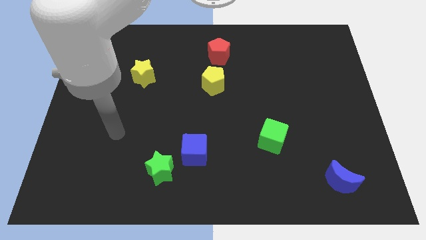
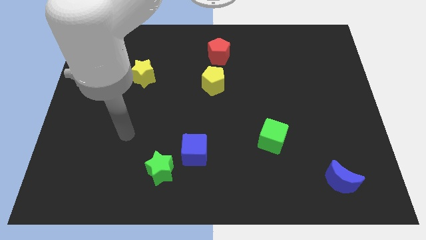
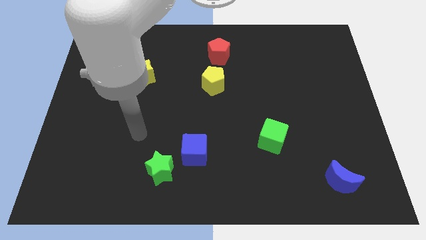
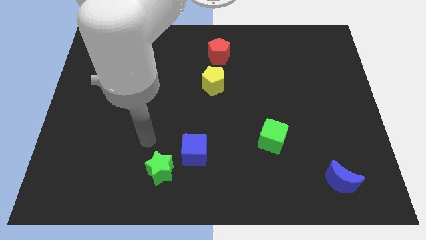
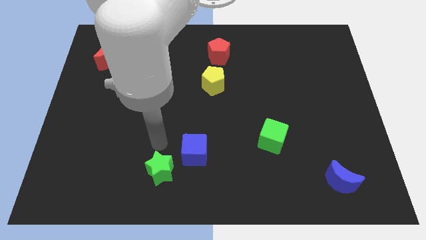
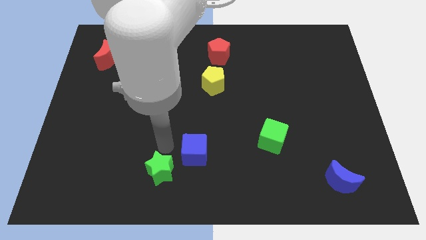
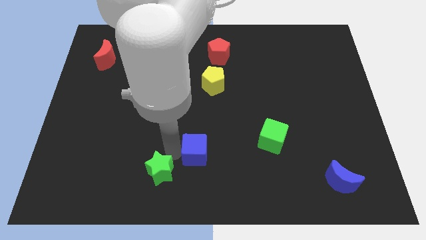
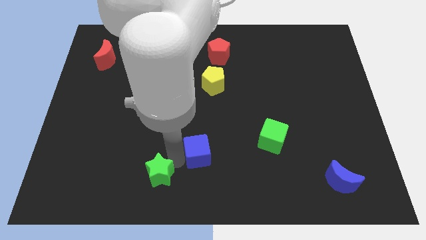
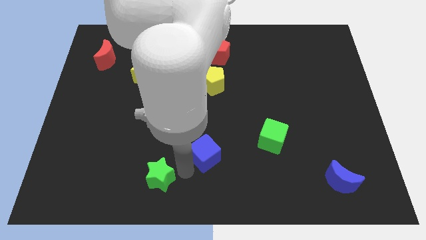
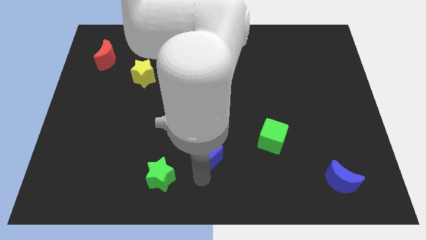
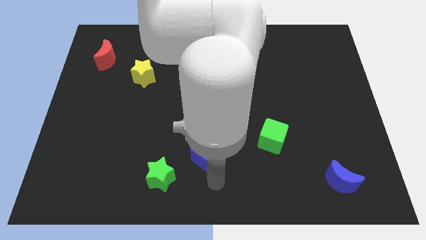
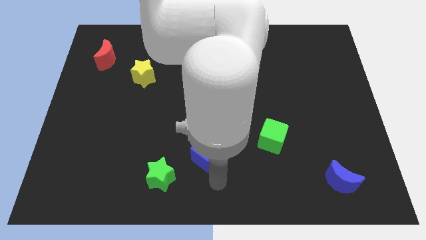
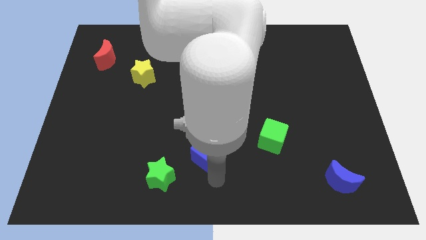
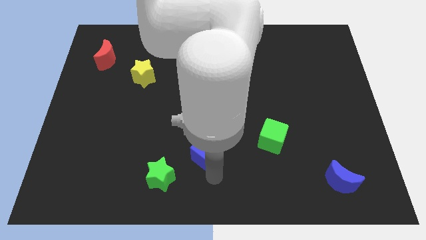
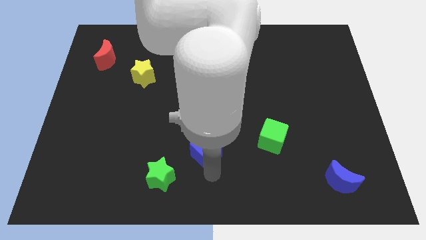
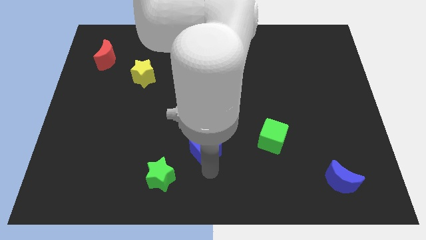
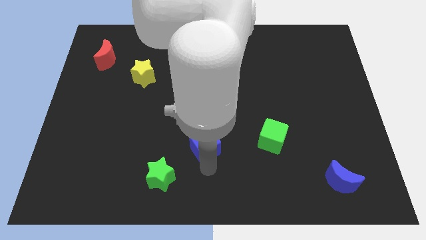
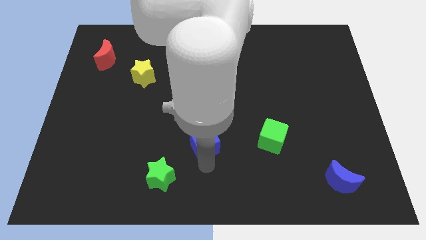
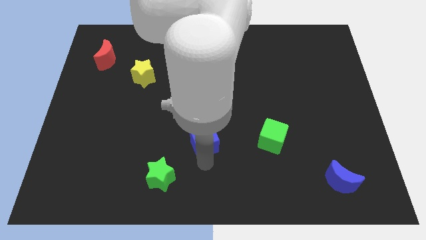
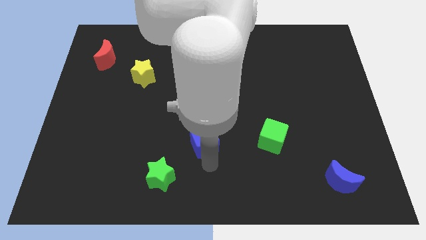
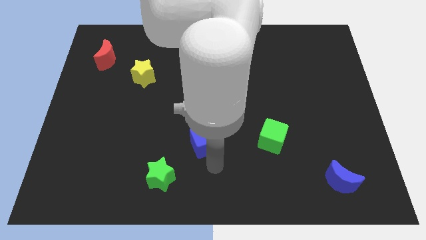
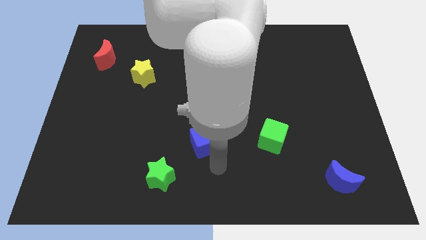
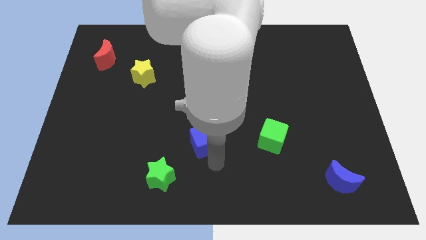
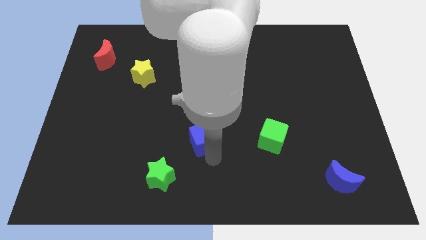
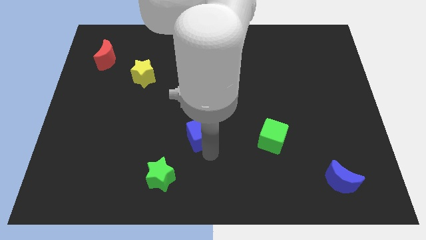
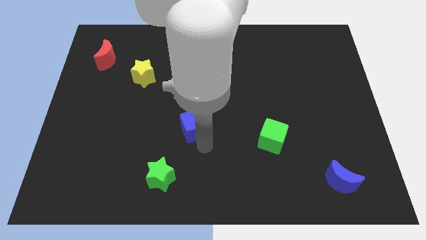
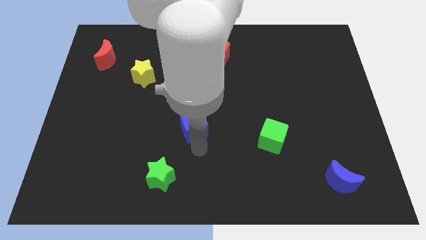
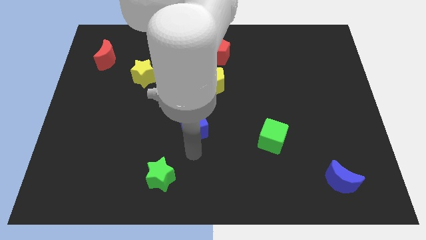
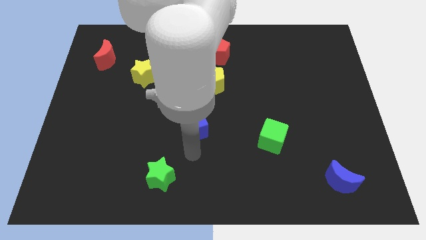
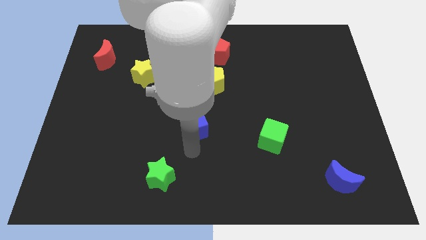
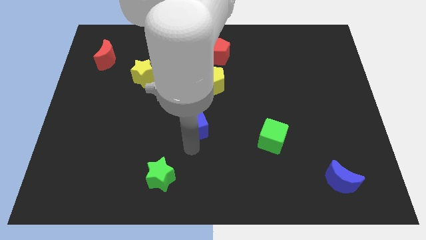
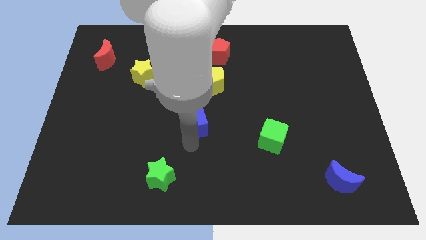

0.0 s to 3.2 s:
move the blue cube upwards a little bit

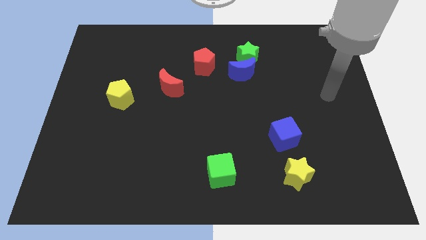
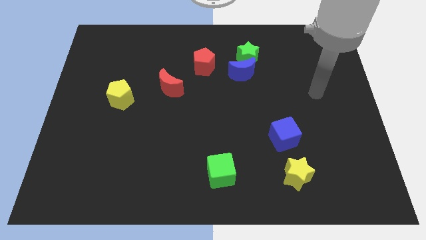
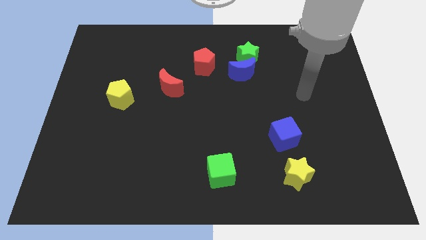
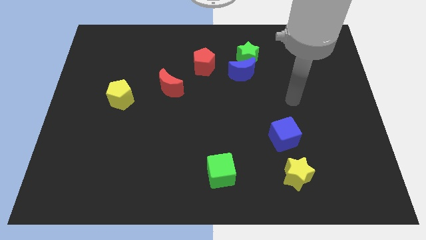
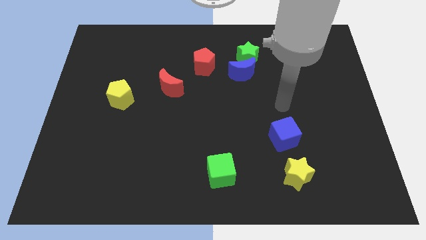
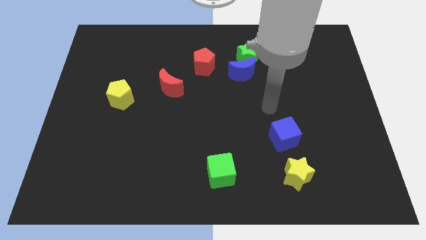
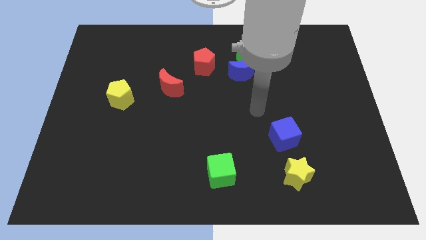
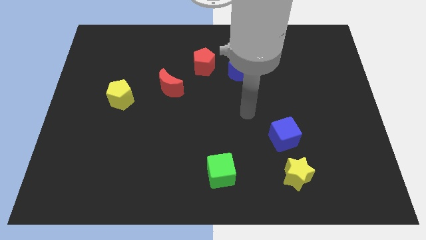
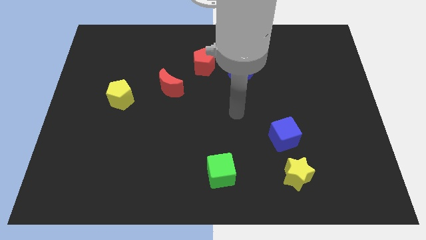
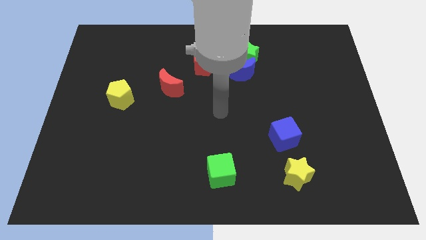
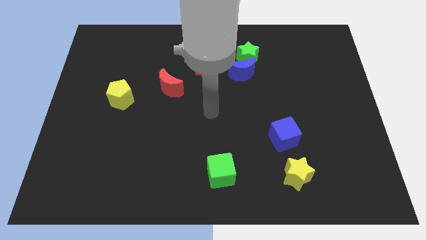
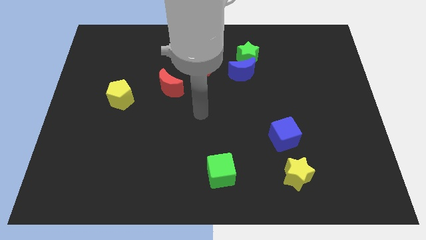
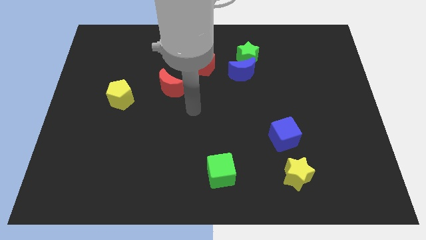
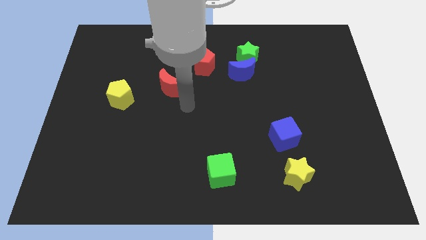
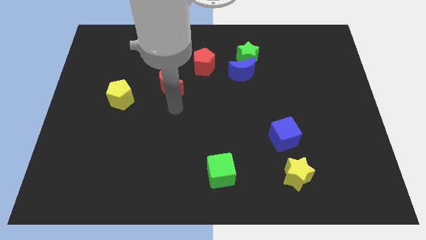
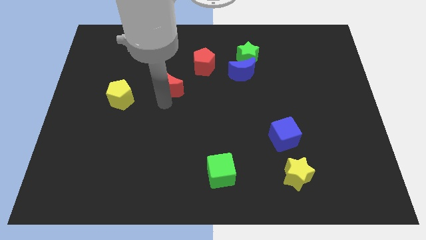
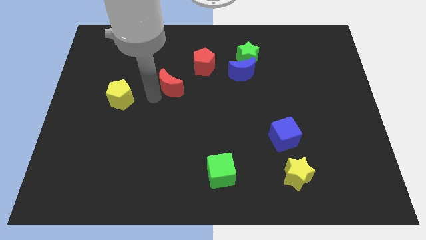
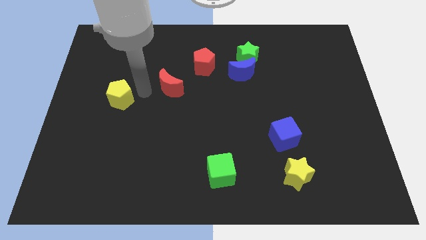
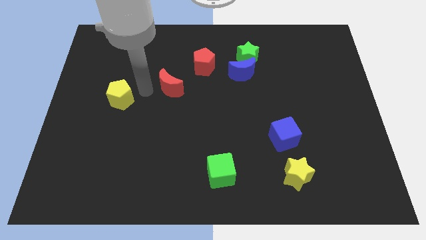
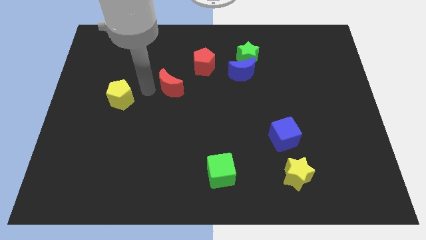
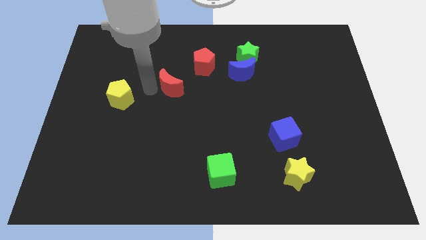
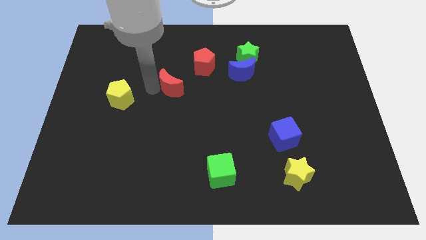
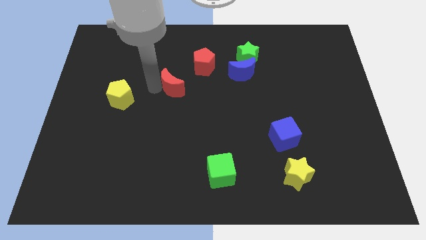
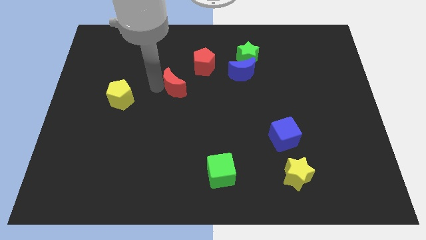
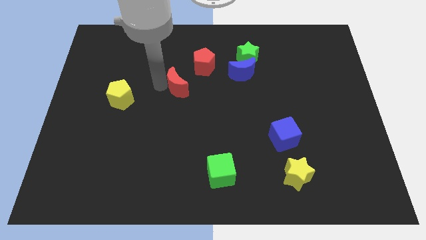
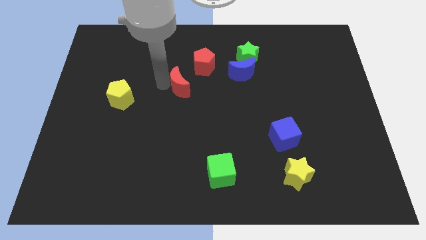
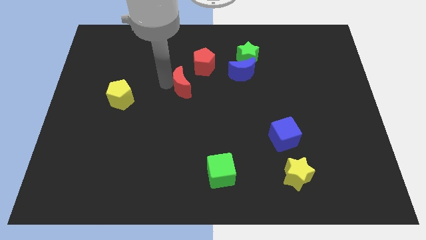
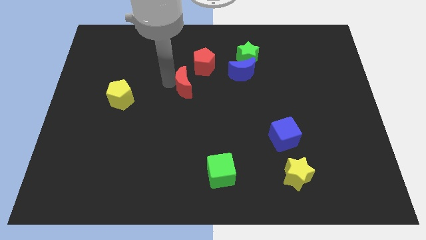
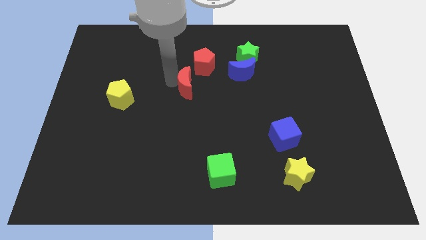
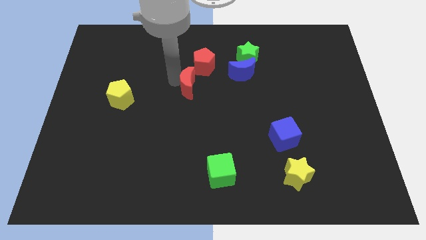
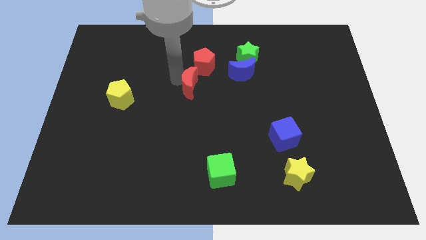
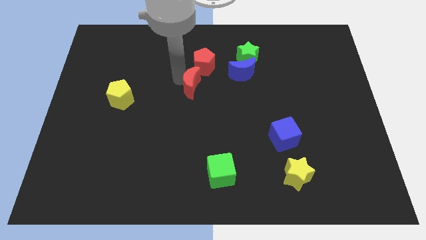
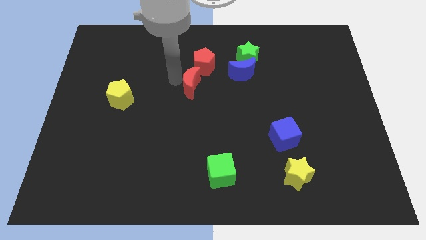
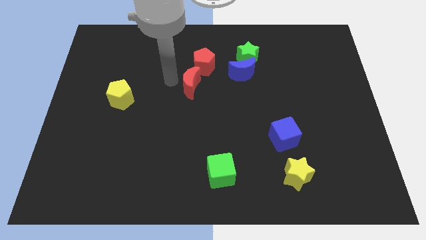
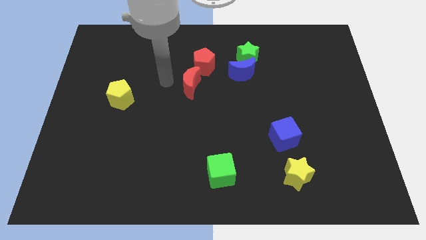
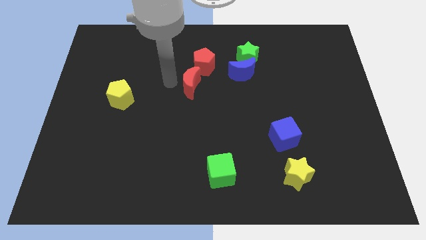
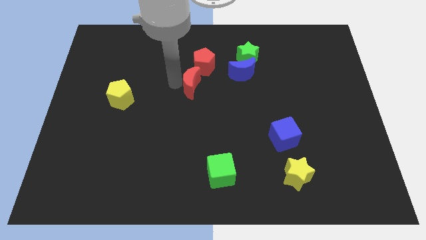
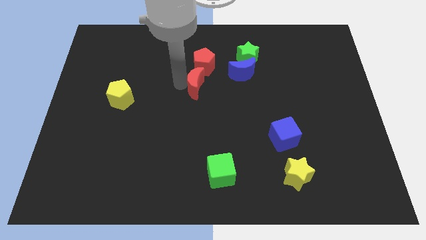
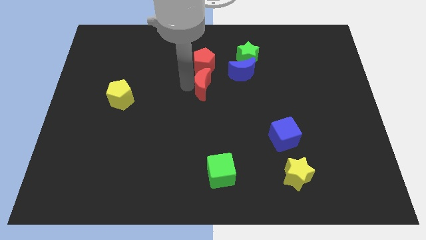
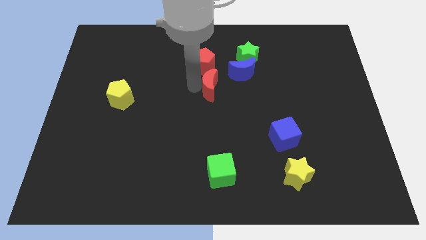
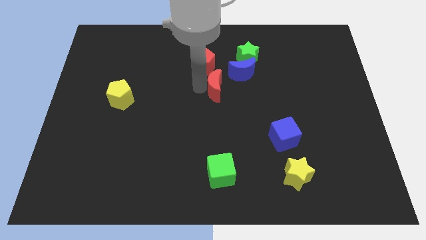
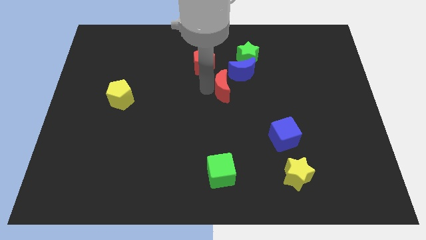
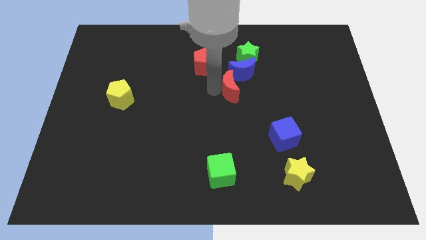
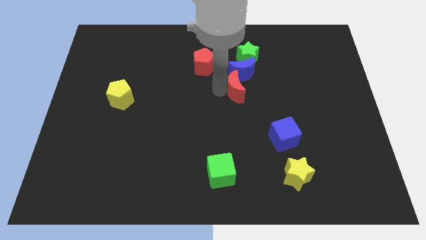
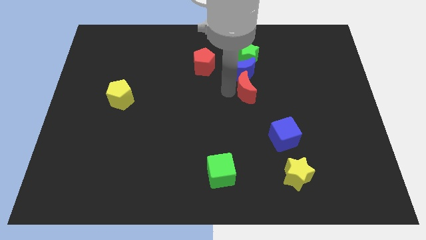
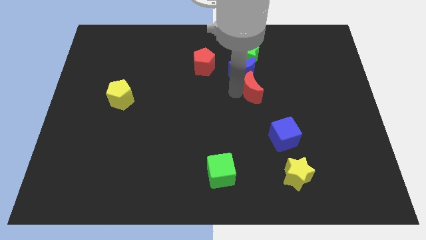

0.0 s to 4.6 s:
move the red moon right

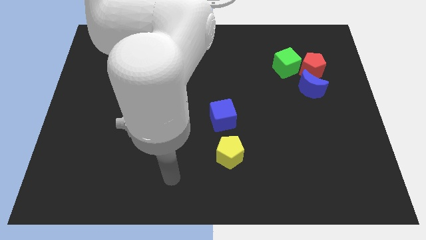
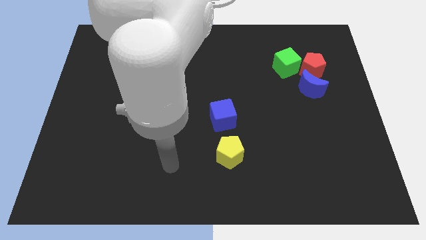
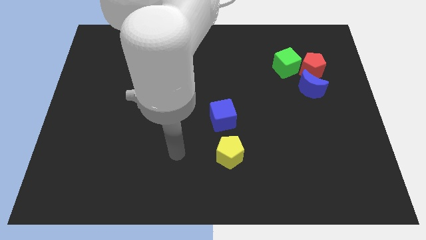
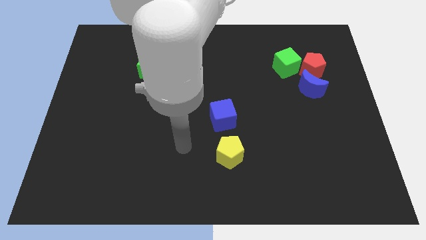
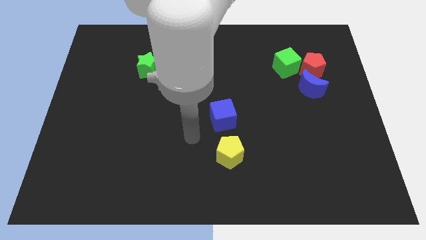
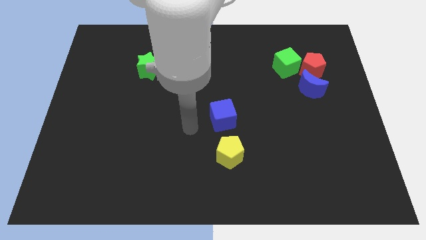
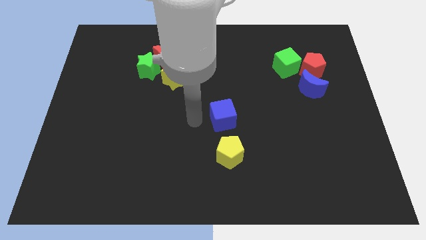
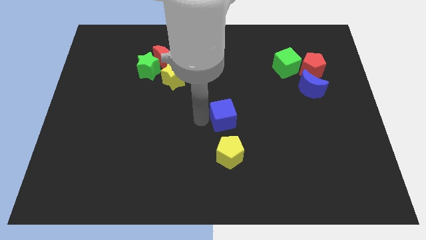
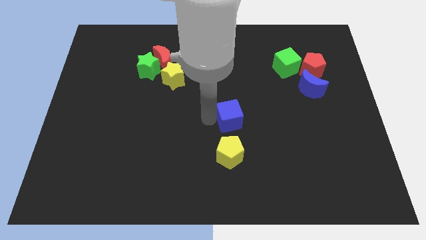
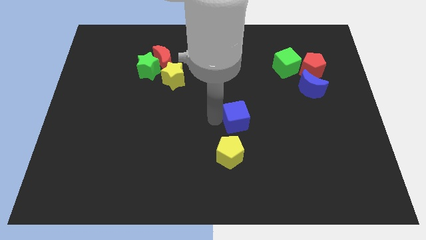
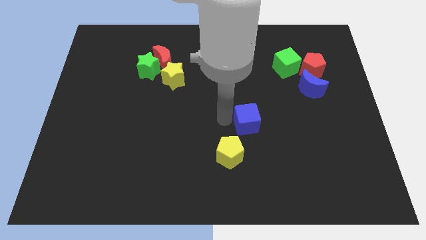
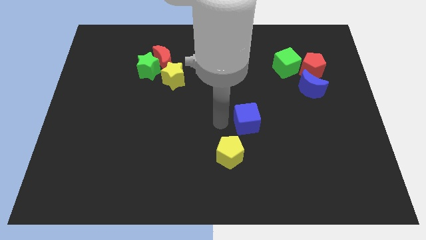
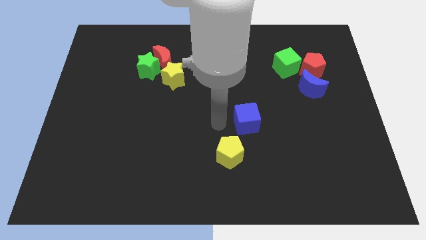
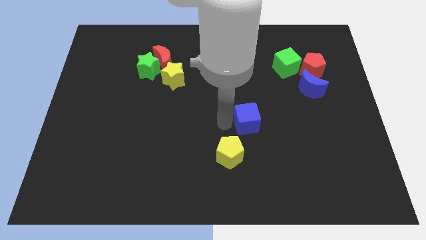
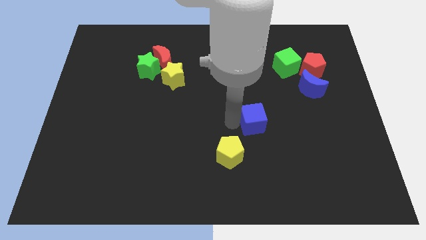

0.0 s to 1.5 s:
slightly move the blue cube right
